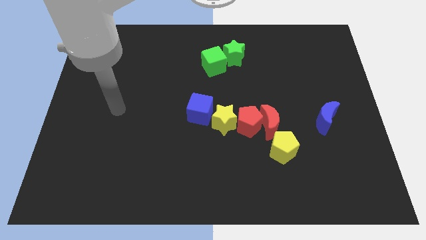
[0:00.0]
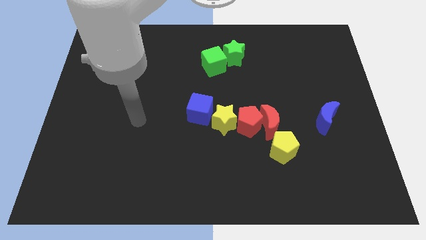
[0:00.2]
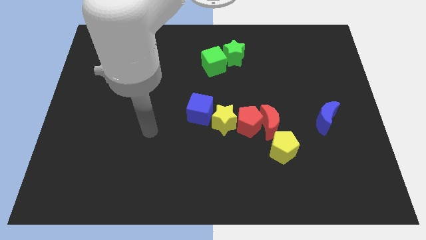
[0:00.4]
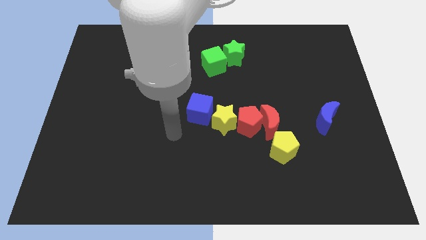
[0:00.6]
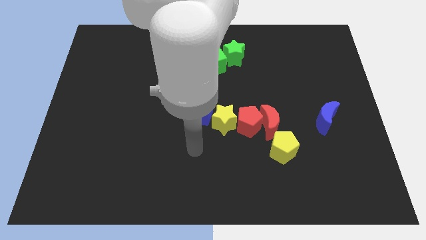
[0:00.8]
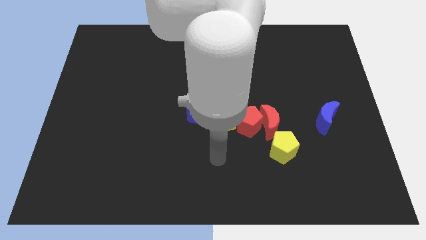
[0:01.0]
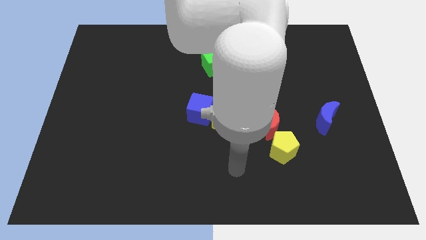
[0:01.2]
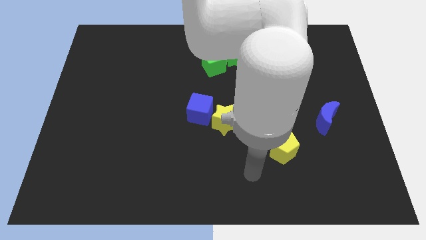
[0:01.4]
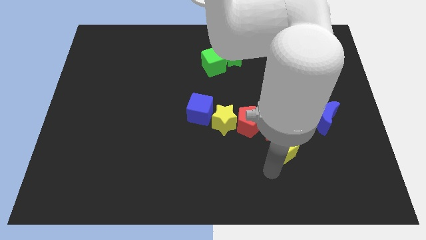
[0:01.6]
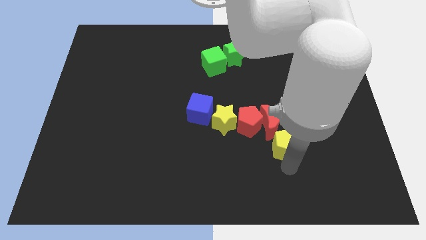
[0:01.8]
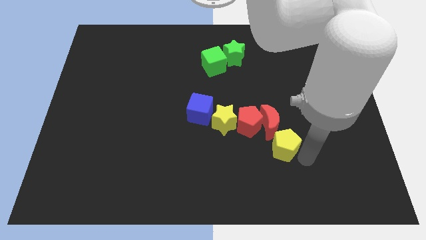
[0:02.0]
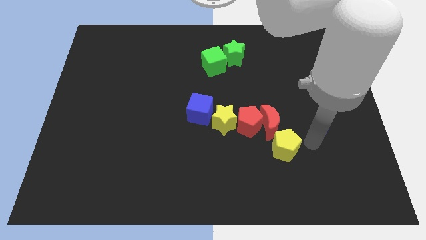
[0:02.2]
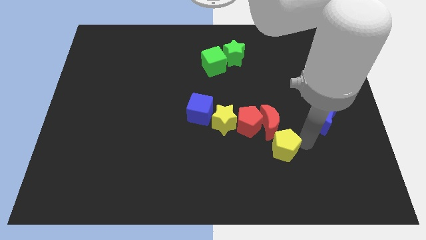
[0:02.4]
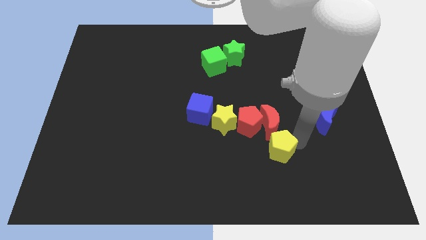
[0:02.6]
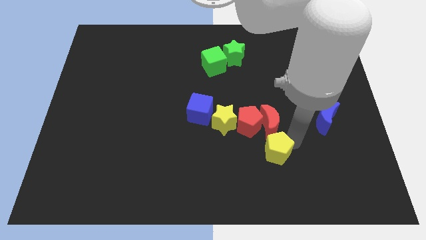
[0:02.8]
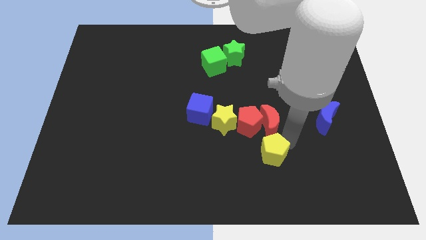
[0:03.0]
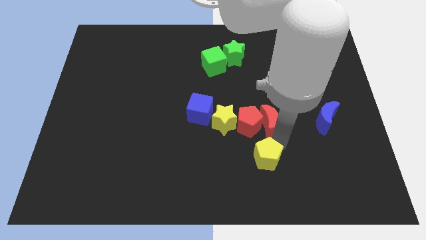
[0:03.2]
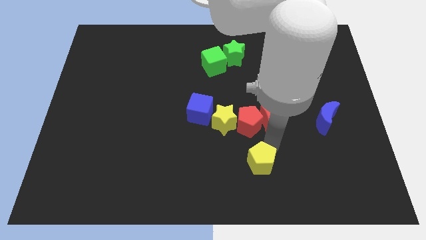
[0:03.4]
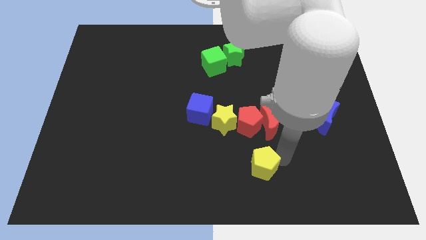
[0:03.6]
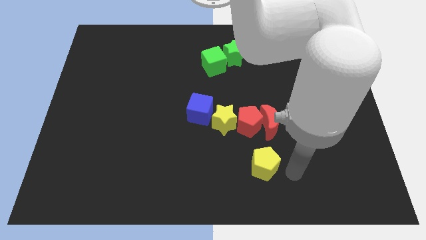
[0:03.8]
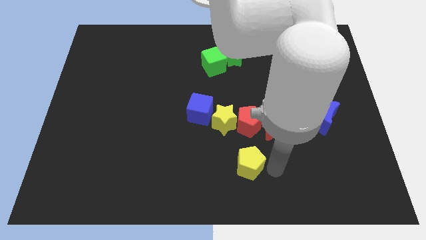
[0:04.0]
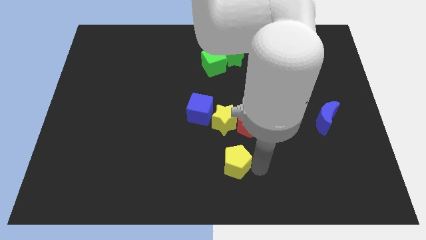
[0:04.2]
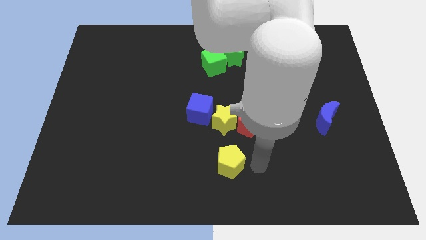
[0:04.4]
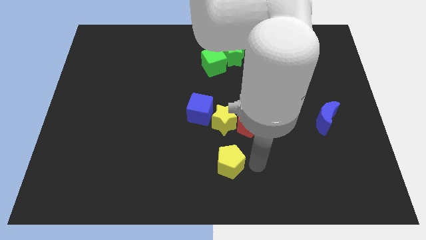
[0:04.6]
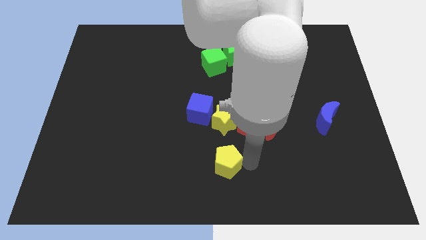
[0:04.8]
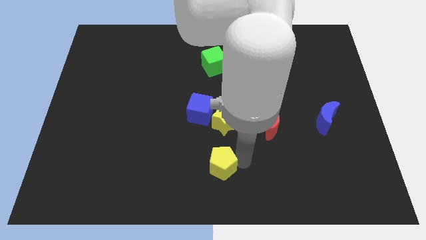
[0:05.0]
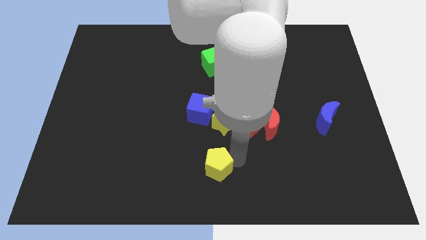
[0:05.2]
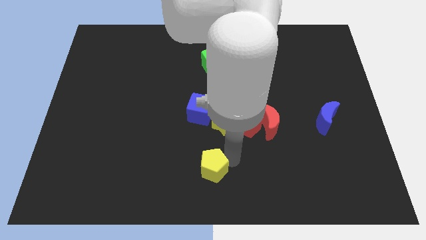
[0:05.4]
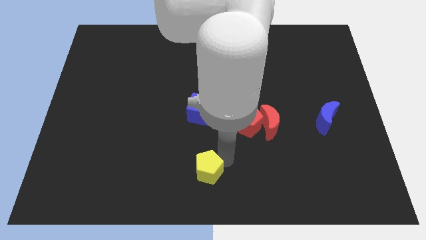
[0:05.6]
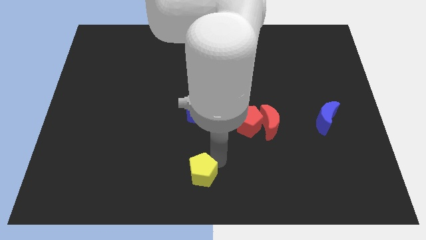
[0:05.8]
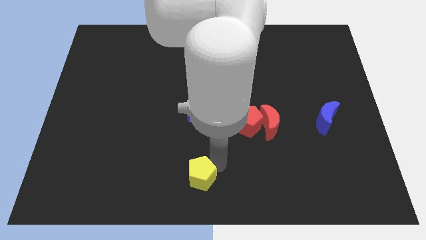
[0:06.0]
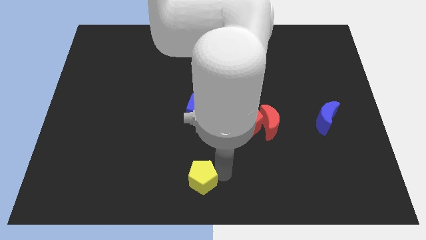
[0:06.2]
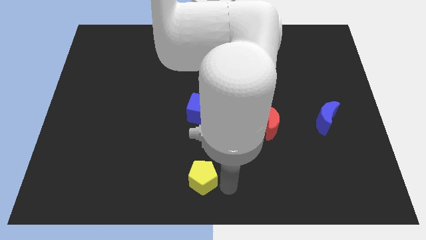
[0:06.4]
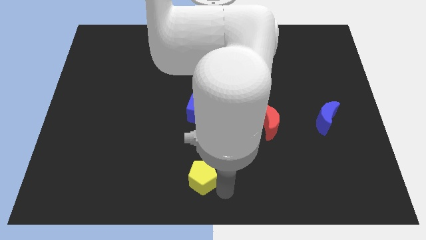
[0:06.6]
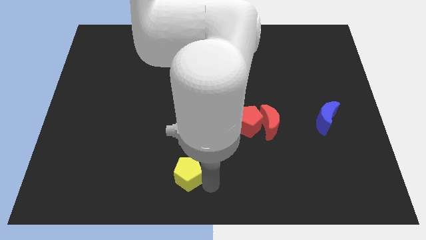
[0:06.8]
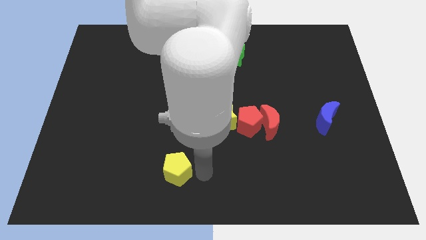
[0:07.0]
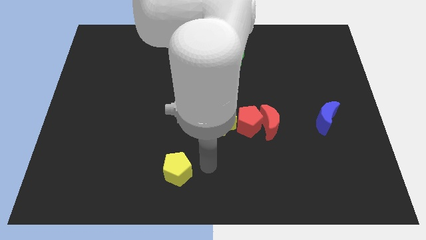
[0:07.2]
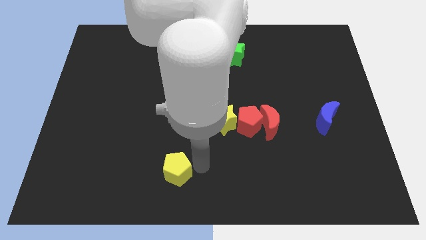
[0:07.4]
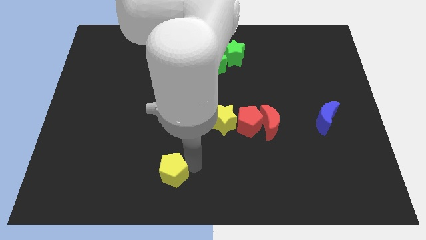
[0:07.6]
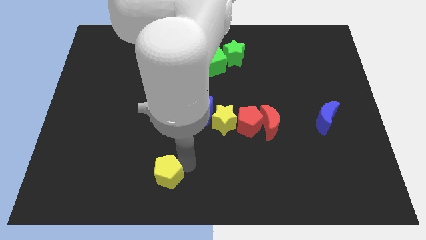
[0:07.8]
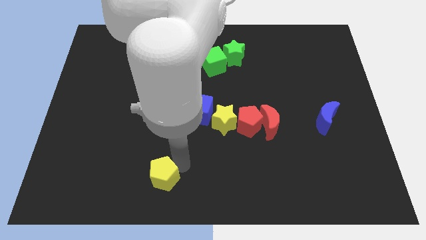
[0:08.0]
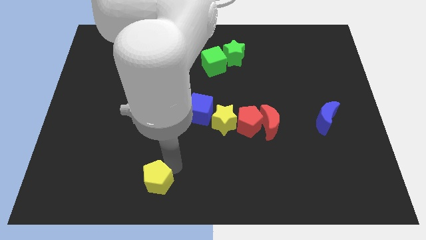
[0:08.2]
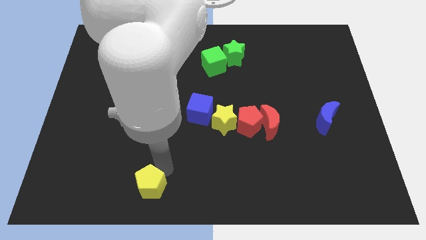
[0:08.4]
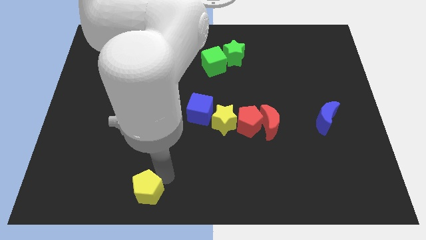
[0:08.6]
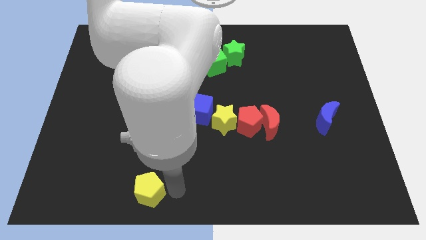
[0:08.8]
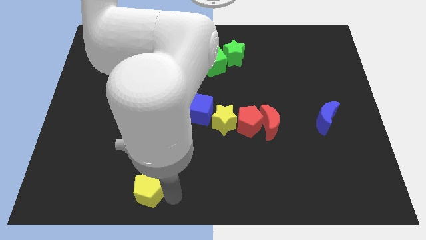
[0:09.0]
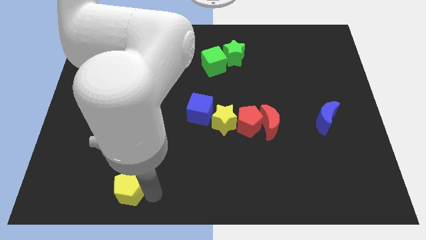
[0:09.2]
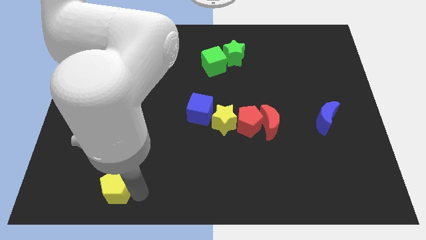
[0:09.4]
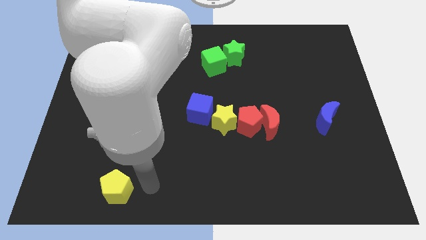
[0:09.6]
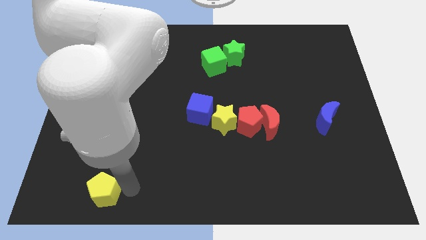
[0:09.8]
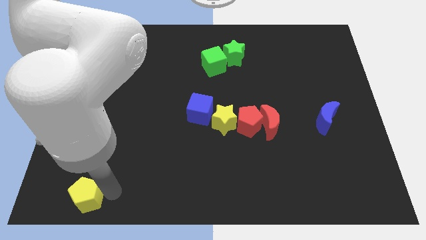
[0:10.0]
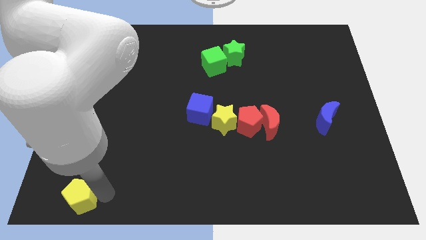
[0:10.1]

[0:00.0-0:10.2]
slide the yellow pentagon to the bottom left corner

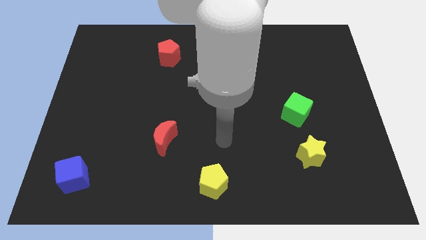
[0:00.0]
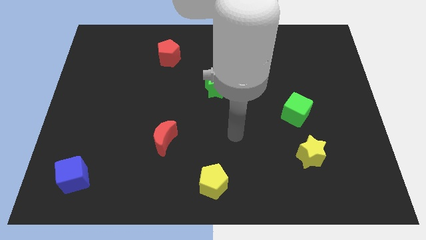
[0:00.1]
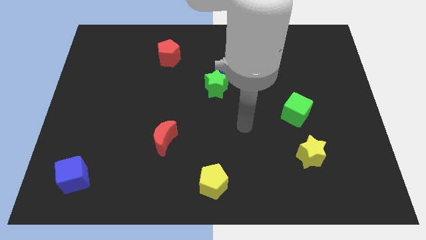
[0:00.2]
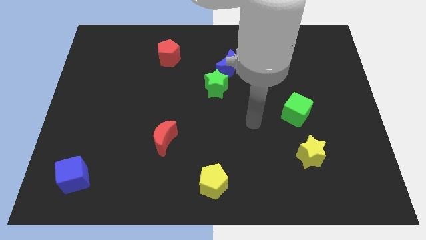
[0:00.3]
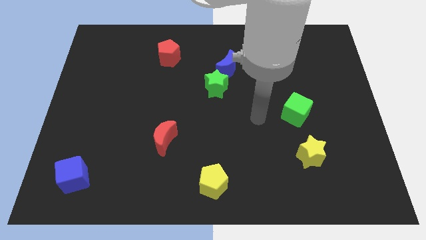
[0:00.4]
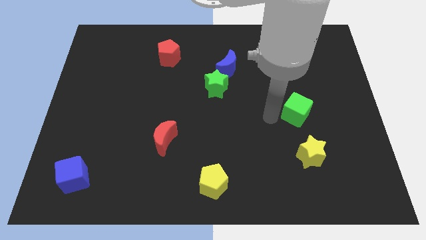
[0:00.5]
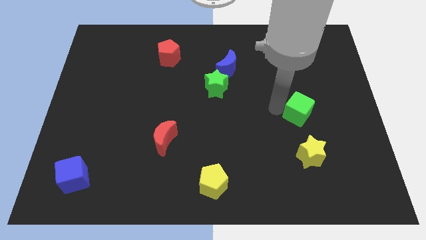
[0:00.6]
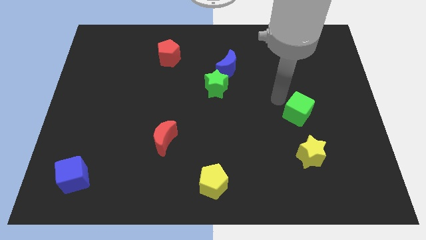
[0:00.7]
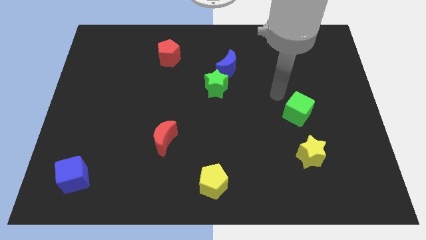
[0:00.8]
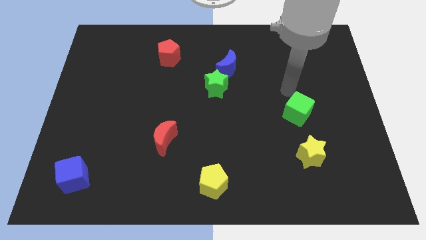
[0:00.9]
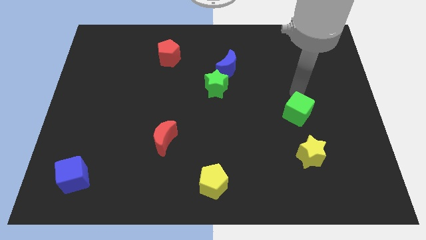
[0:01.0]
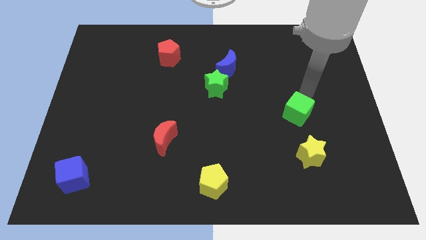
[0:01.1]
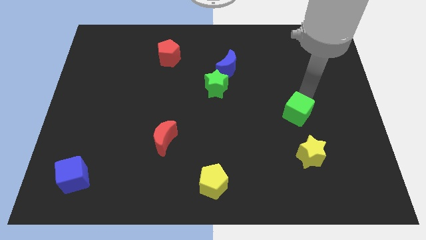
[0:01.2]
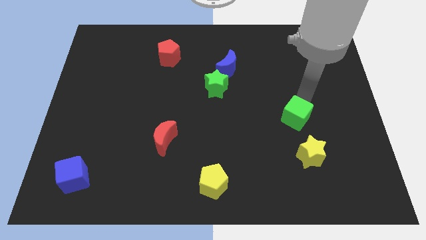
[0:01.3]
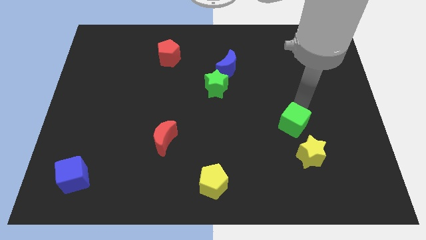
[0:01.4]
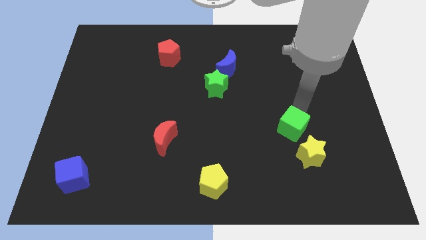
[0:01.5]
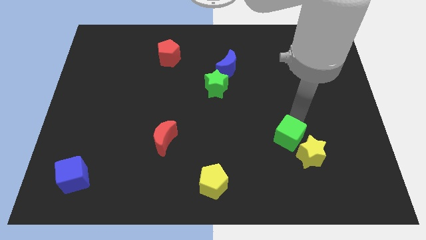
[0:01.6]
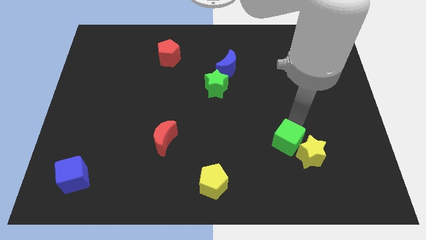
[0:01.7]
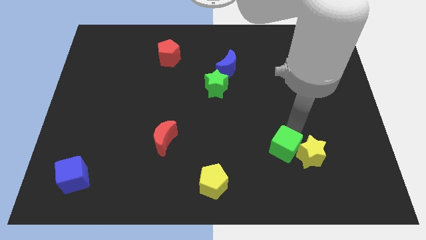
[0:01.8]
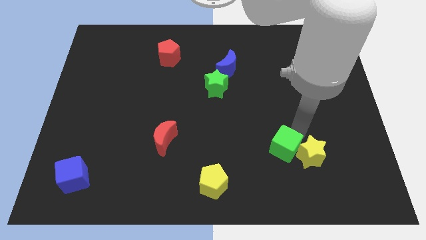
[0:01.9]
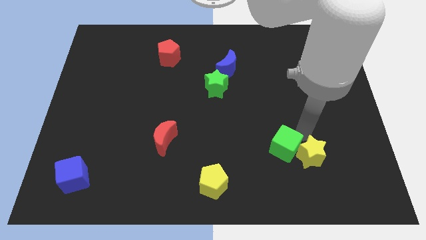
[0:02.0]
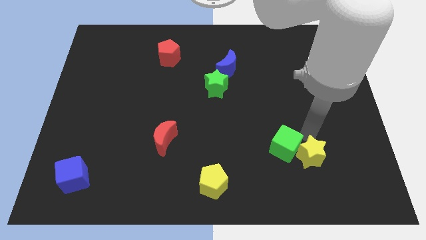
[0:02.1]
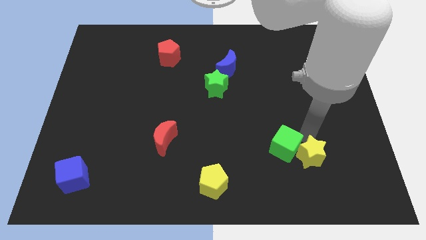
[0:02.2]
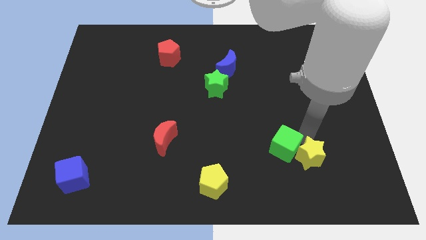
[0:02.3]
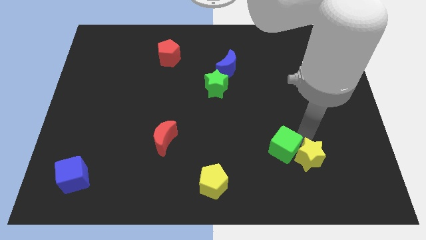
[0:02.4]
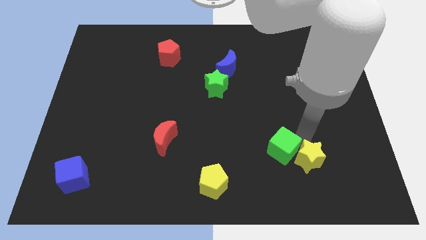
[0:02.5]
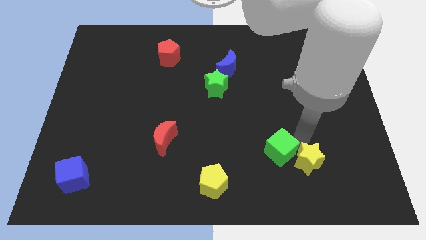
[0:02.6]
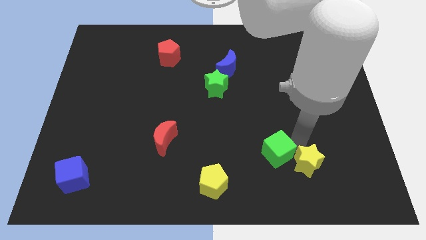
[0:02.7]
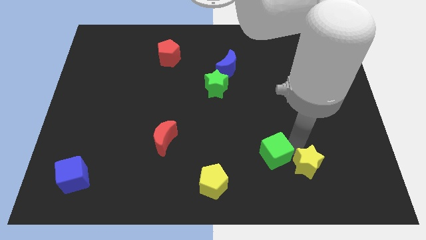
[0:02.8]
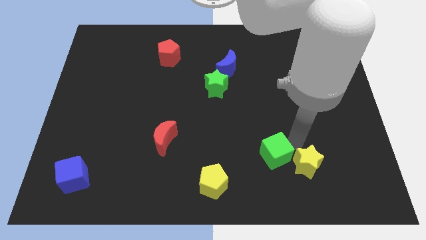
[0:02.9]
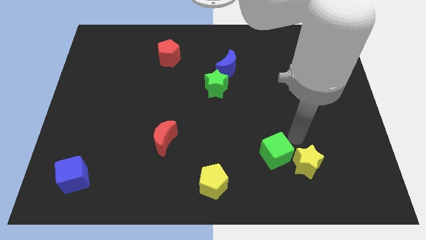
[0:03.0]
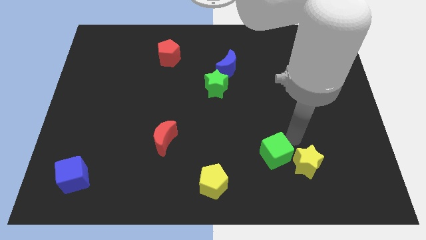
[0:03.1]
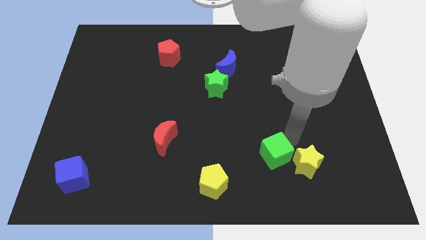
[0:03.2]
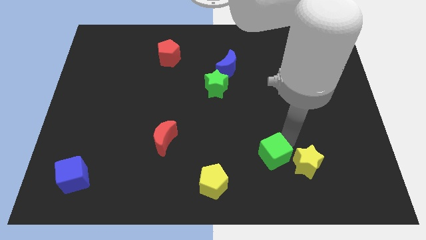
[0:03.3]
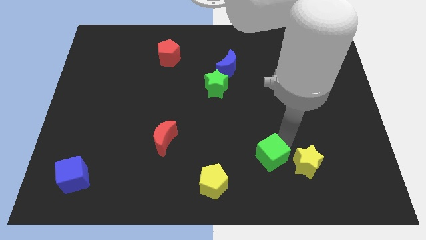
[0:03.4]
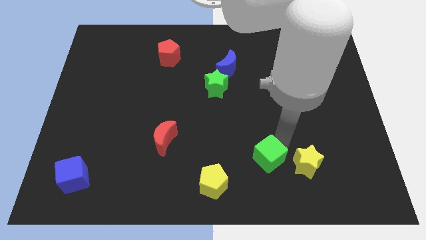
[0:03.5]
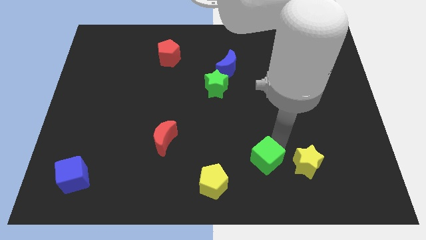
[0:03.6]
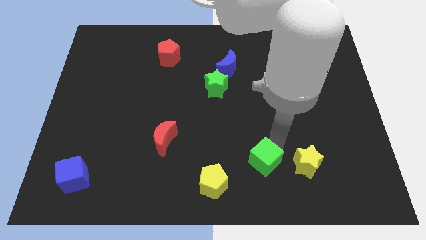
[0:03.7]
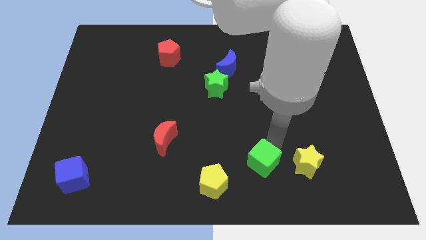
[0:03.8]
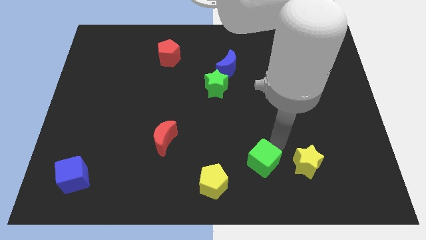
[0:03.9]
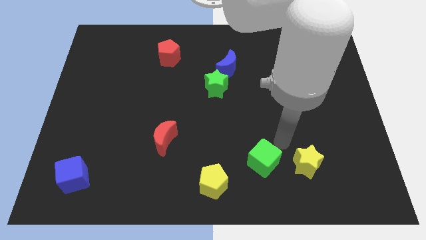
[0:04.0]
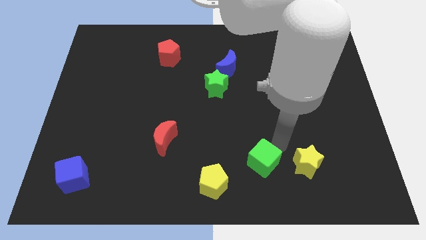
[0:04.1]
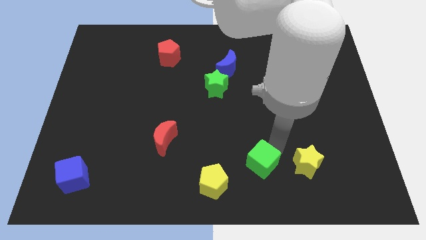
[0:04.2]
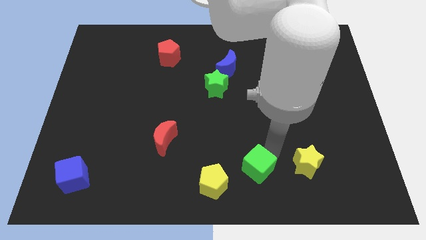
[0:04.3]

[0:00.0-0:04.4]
push the green cube to the bottom side
